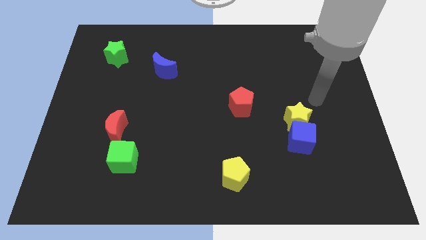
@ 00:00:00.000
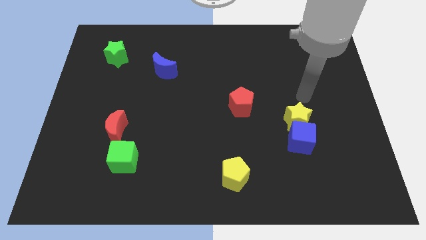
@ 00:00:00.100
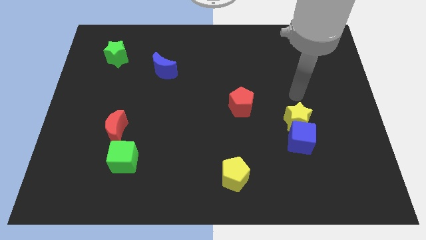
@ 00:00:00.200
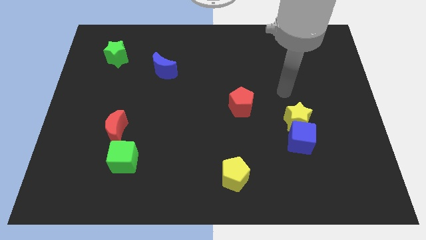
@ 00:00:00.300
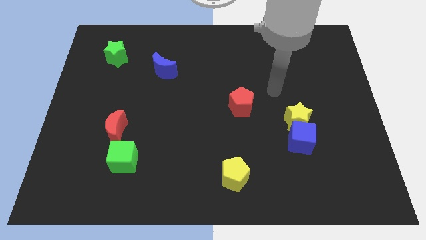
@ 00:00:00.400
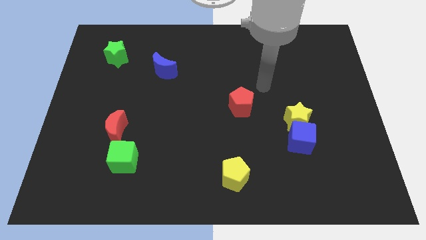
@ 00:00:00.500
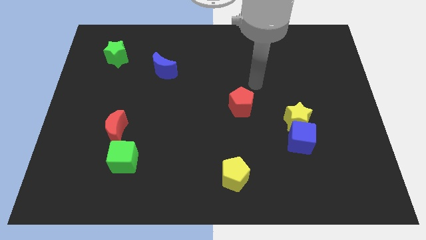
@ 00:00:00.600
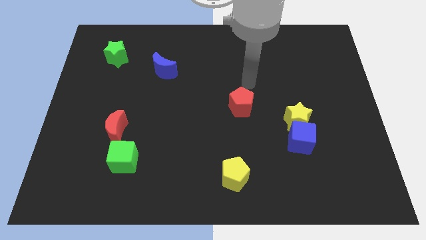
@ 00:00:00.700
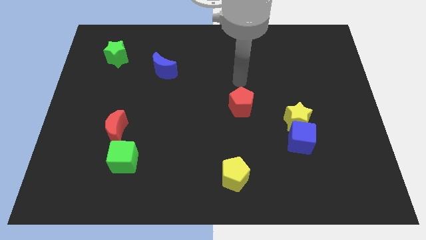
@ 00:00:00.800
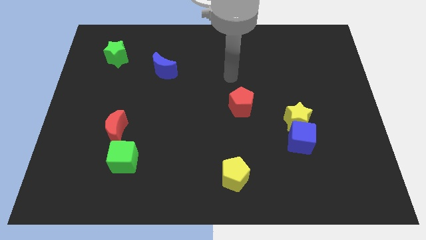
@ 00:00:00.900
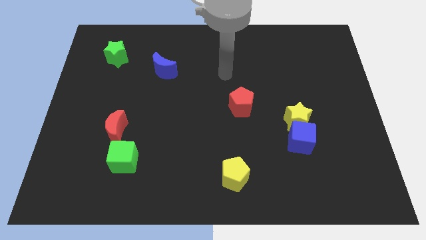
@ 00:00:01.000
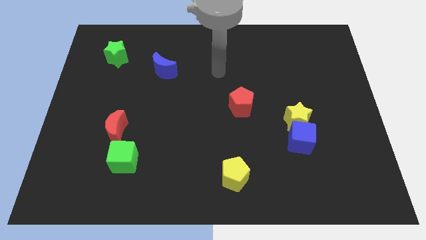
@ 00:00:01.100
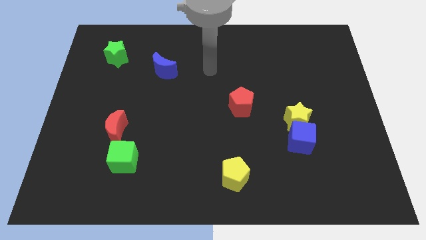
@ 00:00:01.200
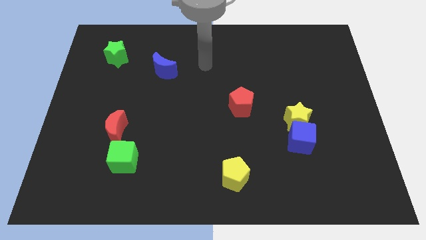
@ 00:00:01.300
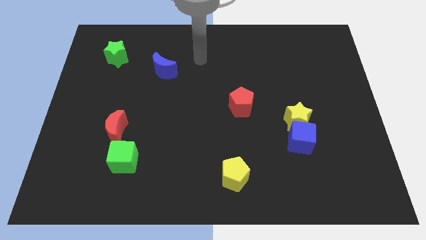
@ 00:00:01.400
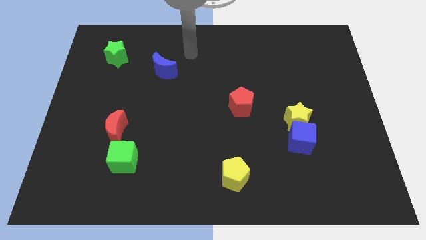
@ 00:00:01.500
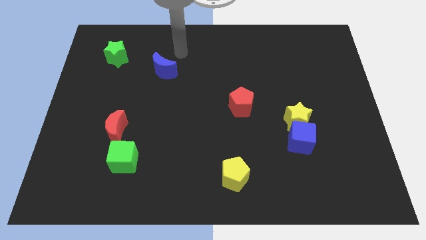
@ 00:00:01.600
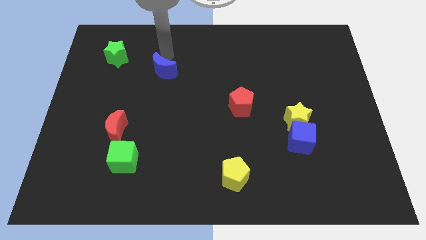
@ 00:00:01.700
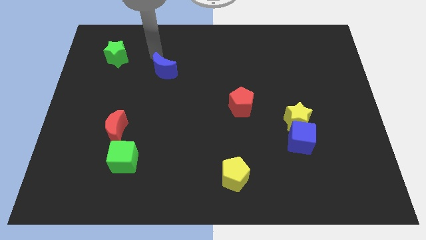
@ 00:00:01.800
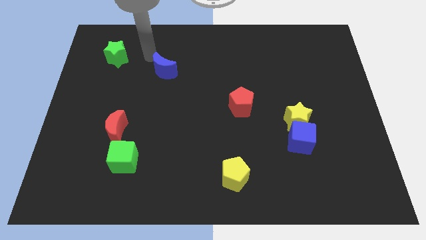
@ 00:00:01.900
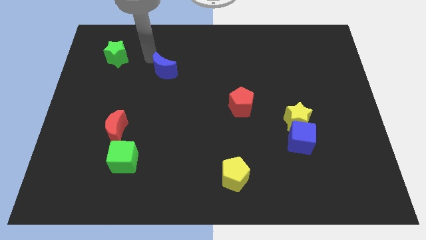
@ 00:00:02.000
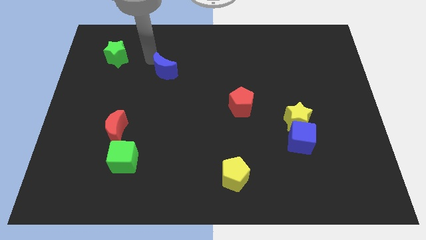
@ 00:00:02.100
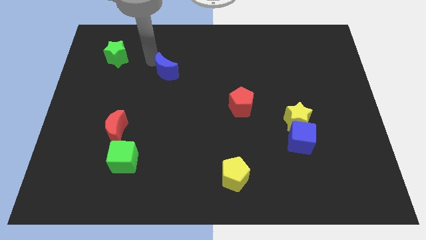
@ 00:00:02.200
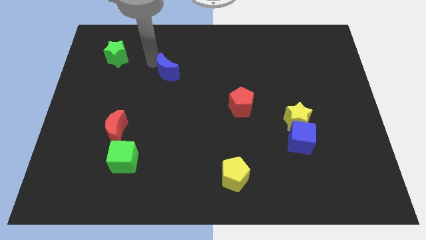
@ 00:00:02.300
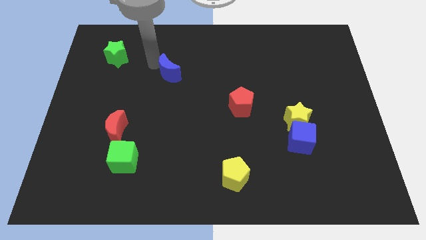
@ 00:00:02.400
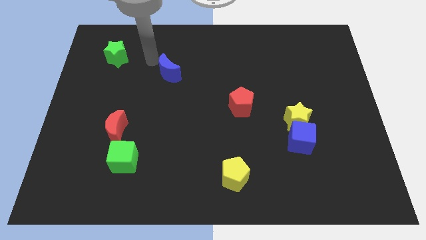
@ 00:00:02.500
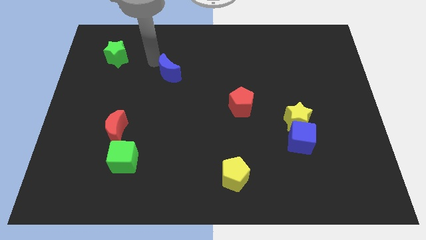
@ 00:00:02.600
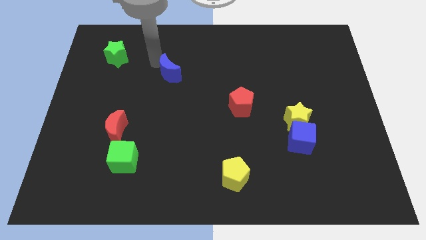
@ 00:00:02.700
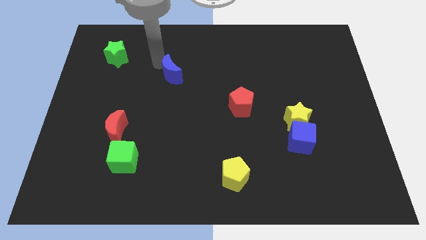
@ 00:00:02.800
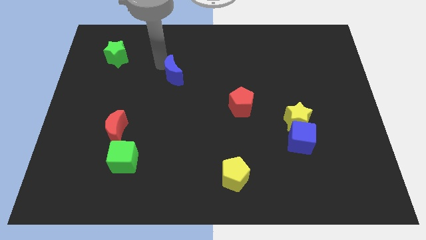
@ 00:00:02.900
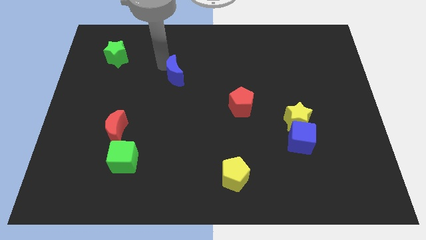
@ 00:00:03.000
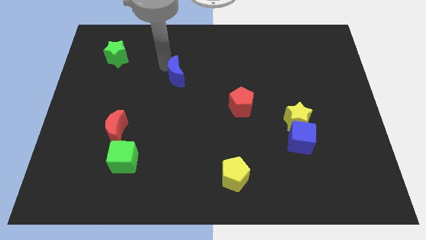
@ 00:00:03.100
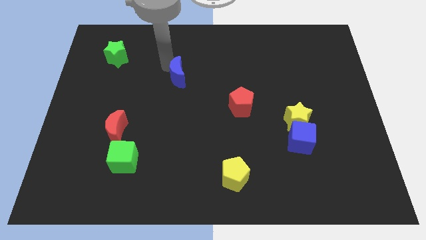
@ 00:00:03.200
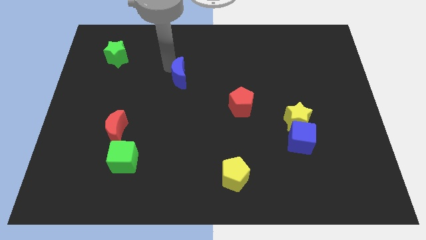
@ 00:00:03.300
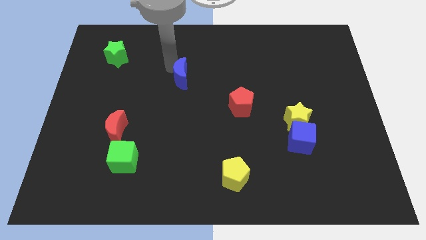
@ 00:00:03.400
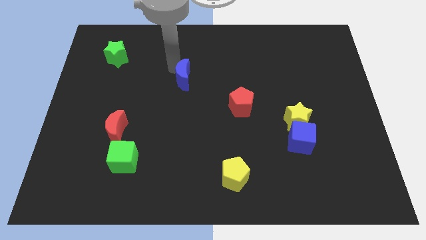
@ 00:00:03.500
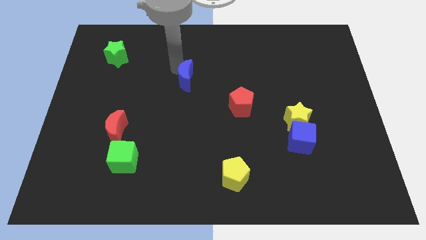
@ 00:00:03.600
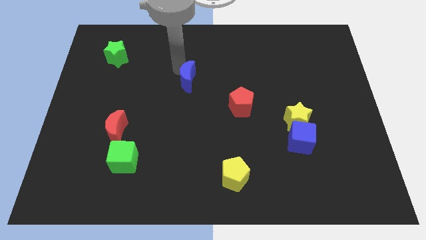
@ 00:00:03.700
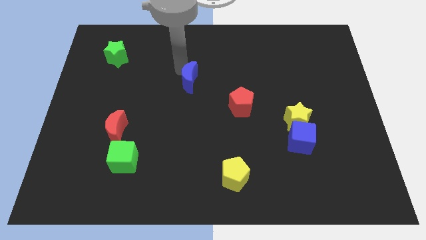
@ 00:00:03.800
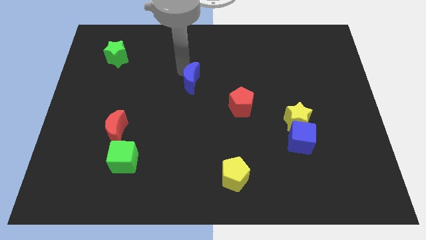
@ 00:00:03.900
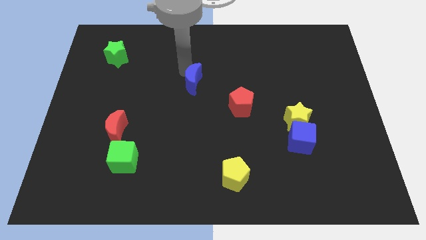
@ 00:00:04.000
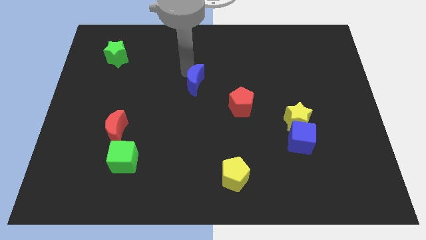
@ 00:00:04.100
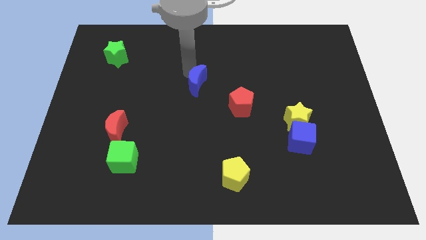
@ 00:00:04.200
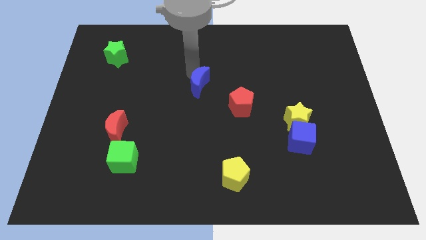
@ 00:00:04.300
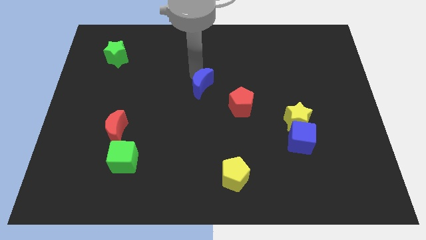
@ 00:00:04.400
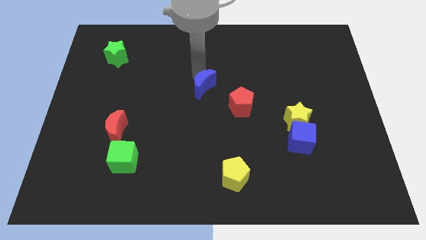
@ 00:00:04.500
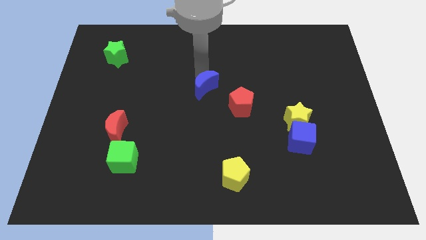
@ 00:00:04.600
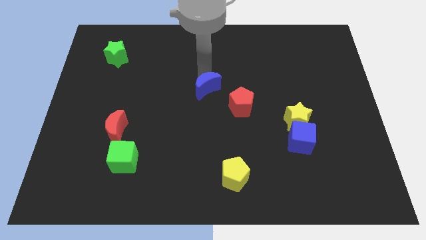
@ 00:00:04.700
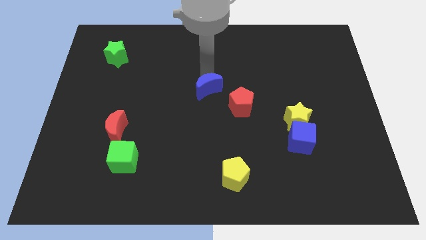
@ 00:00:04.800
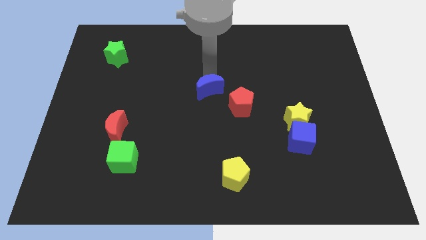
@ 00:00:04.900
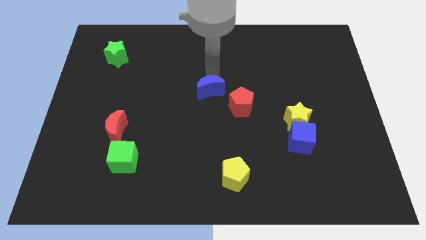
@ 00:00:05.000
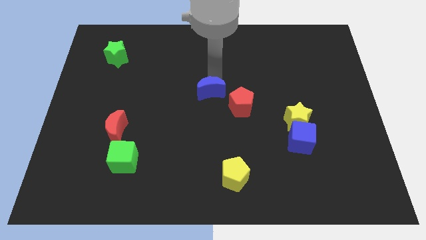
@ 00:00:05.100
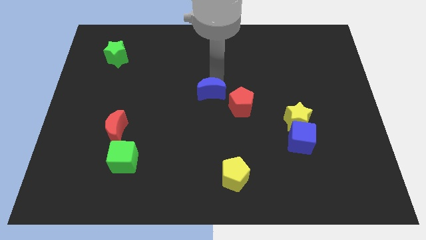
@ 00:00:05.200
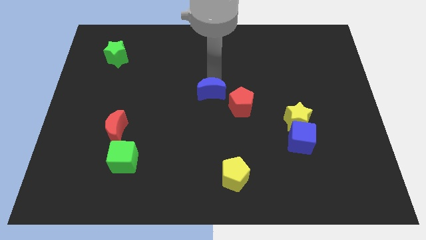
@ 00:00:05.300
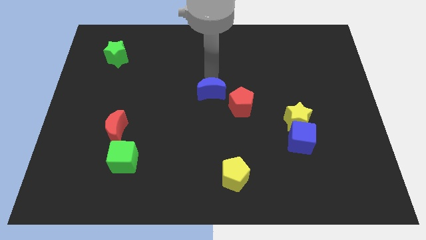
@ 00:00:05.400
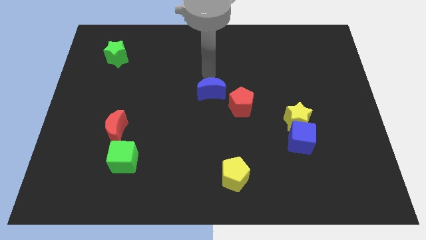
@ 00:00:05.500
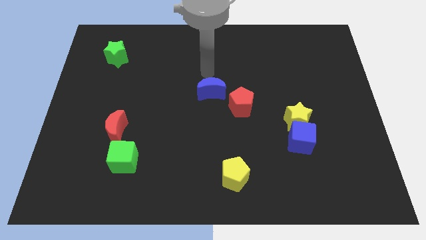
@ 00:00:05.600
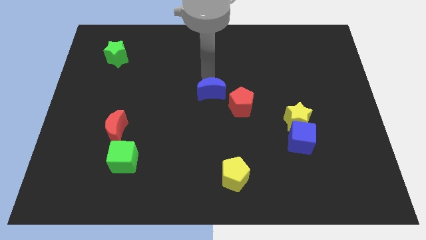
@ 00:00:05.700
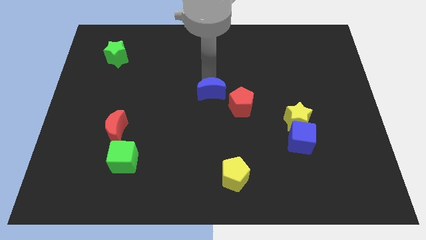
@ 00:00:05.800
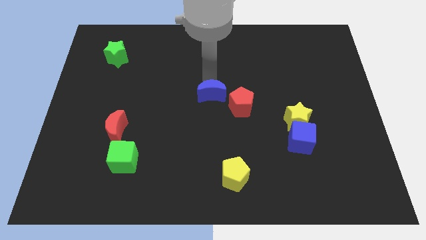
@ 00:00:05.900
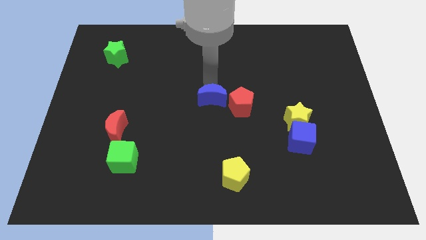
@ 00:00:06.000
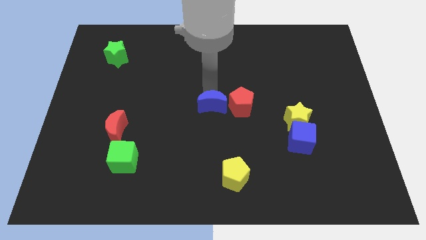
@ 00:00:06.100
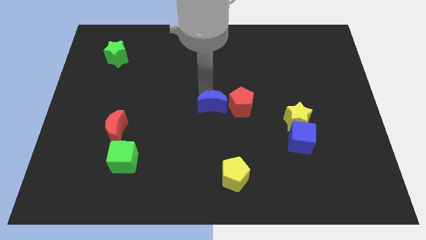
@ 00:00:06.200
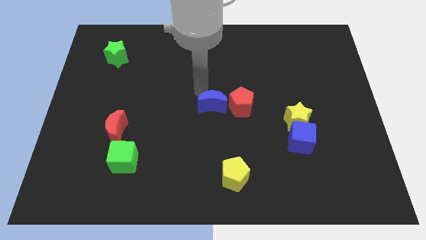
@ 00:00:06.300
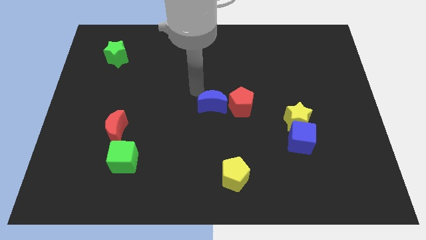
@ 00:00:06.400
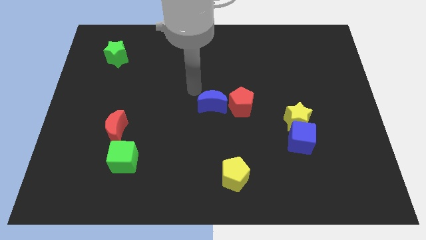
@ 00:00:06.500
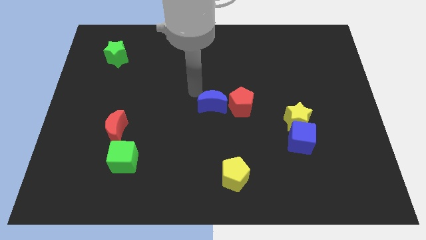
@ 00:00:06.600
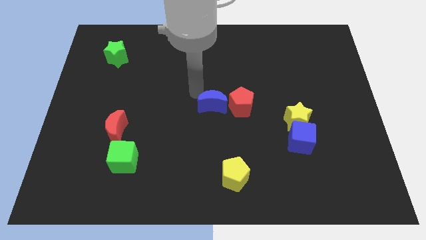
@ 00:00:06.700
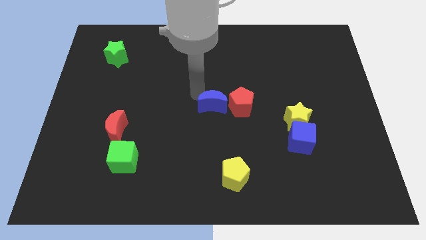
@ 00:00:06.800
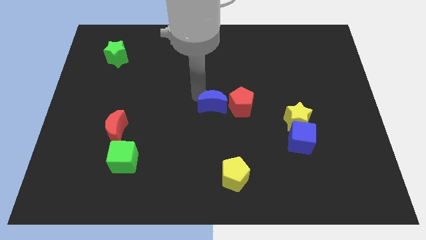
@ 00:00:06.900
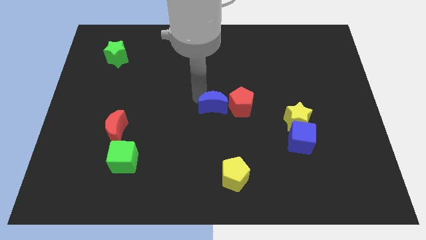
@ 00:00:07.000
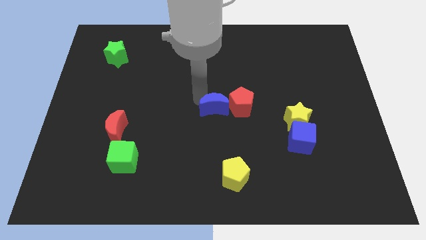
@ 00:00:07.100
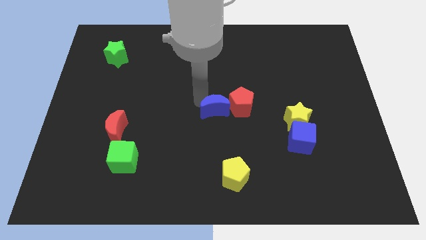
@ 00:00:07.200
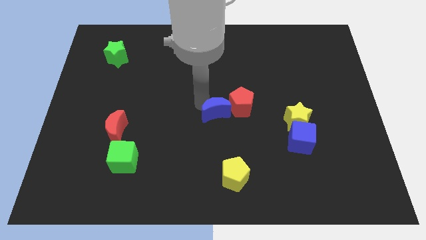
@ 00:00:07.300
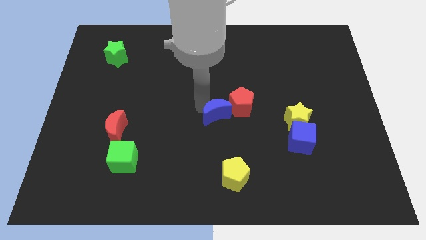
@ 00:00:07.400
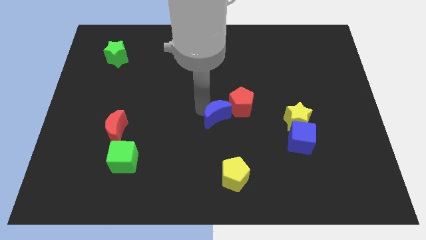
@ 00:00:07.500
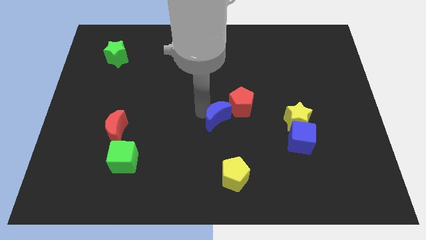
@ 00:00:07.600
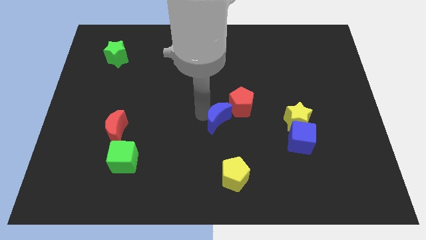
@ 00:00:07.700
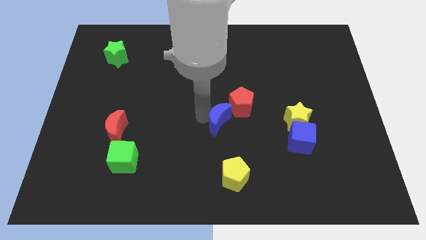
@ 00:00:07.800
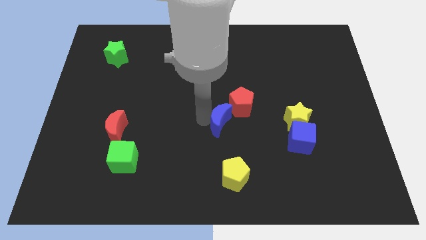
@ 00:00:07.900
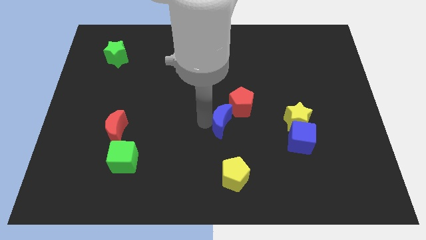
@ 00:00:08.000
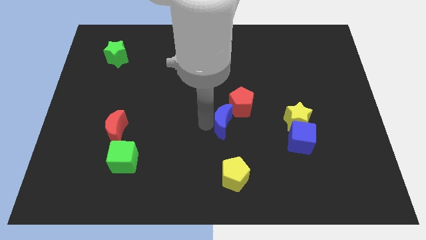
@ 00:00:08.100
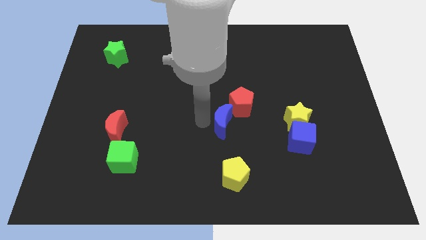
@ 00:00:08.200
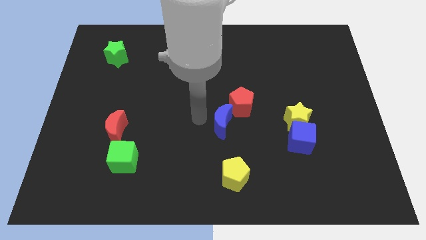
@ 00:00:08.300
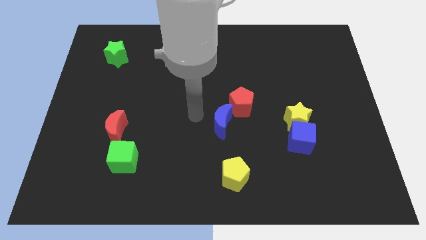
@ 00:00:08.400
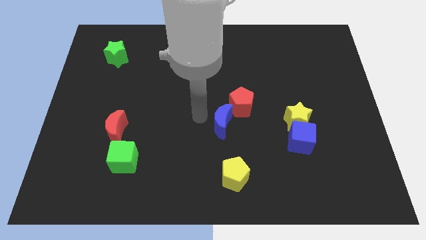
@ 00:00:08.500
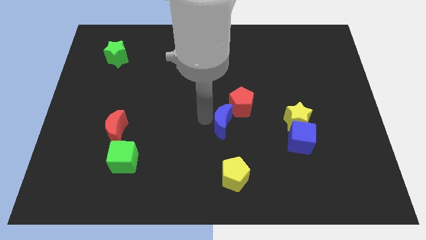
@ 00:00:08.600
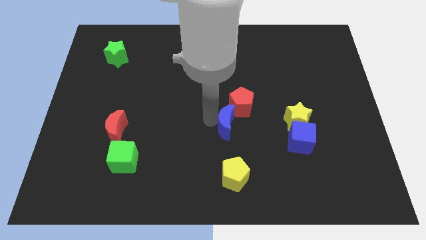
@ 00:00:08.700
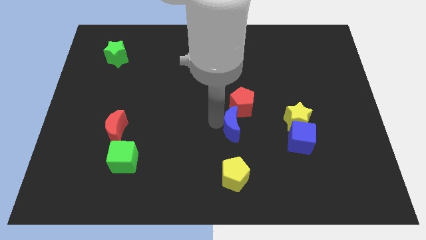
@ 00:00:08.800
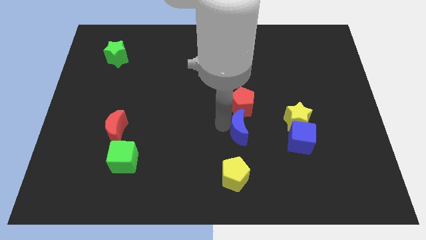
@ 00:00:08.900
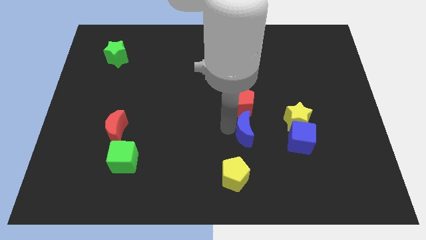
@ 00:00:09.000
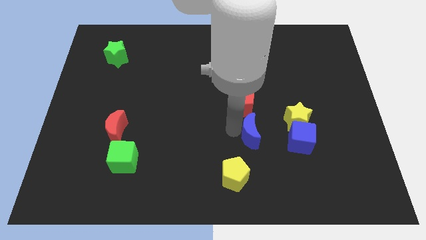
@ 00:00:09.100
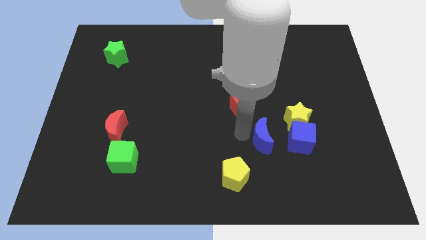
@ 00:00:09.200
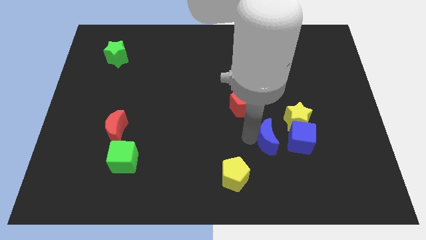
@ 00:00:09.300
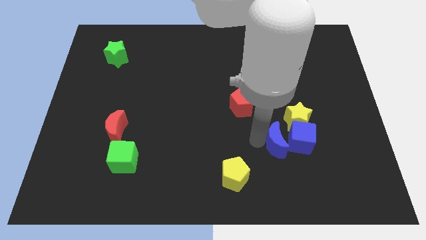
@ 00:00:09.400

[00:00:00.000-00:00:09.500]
push the blue moon next to the blue cube
